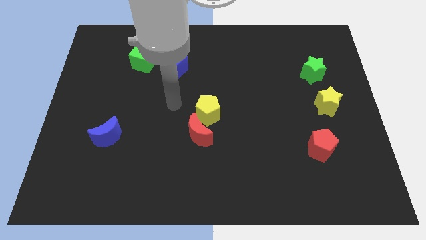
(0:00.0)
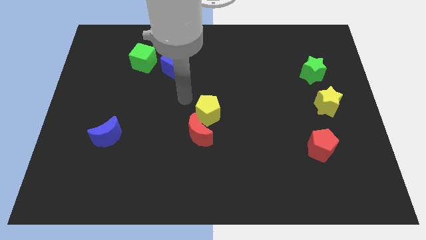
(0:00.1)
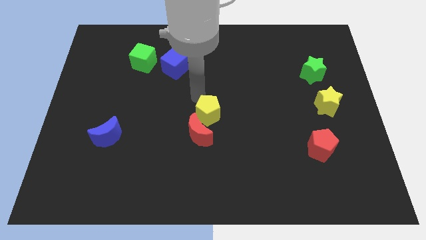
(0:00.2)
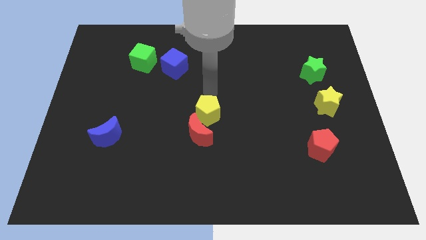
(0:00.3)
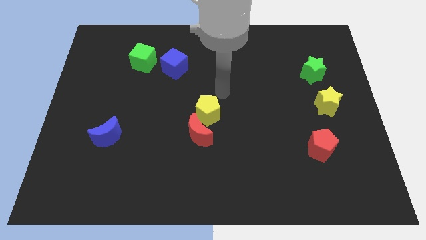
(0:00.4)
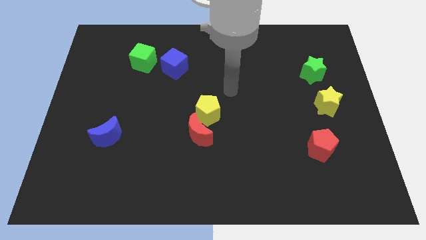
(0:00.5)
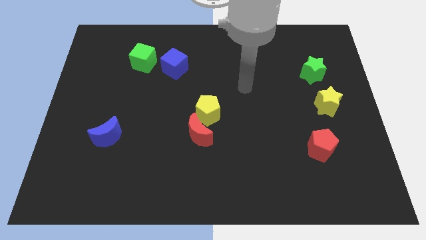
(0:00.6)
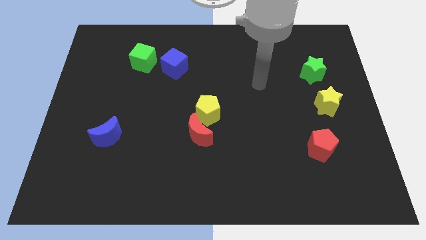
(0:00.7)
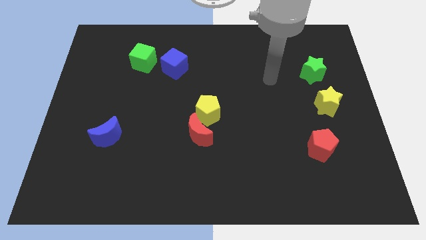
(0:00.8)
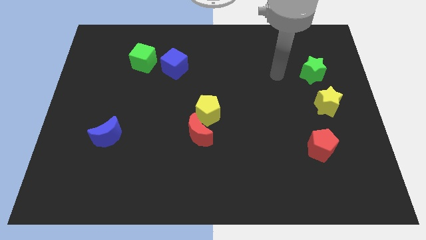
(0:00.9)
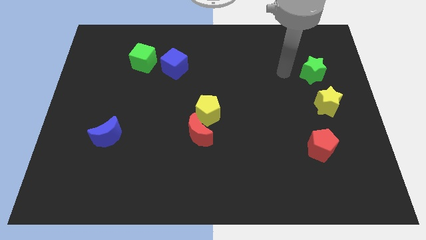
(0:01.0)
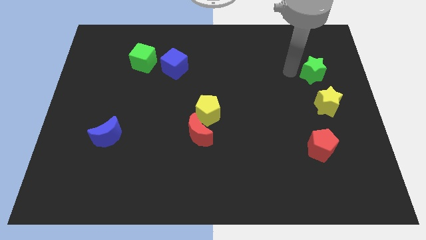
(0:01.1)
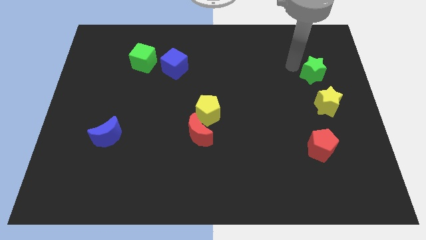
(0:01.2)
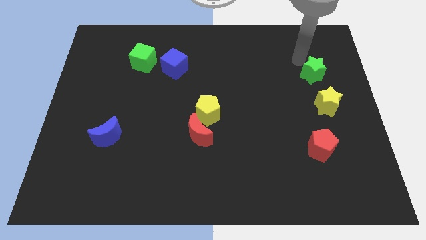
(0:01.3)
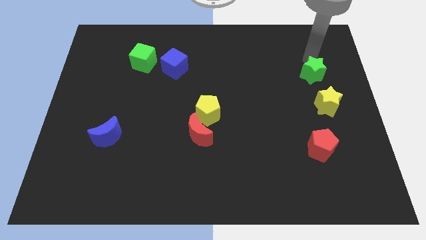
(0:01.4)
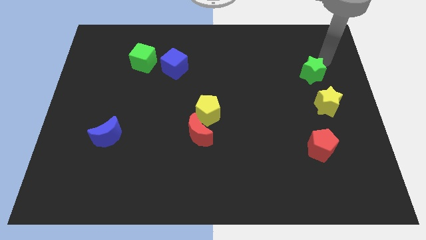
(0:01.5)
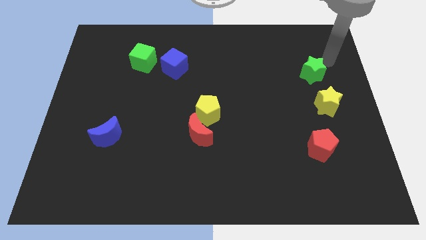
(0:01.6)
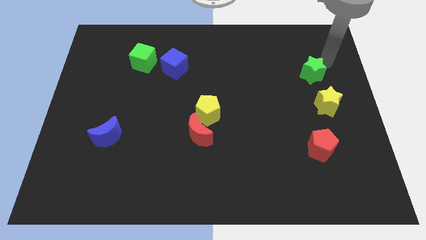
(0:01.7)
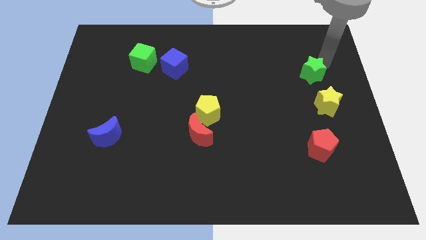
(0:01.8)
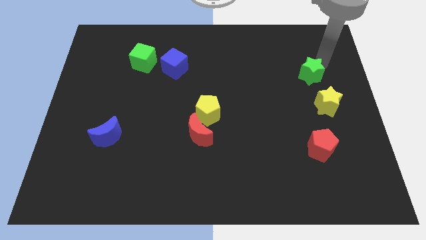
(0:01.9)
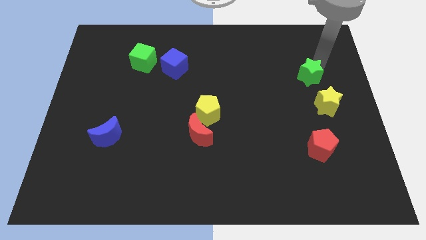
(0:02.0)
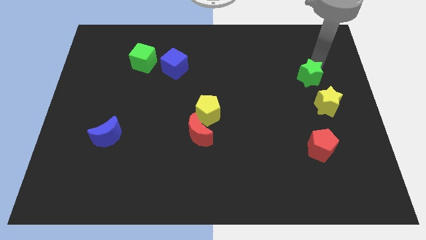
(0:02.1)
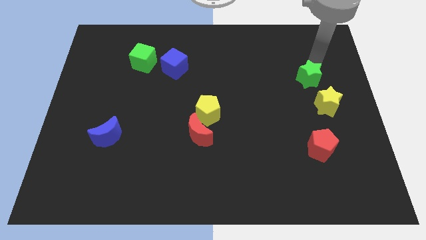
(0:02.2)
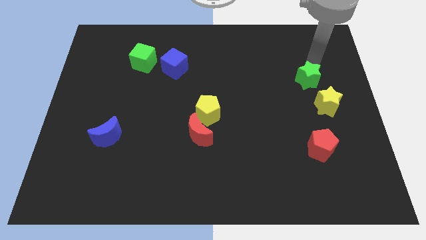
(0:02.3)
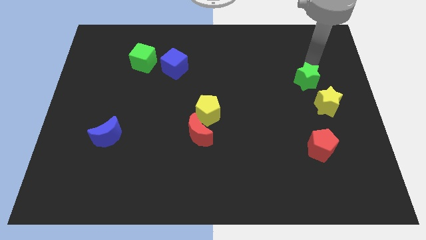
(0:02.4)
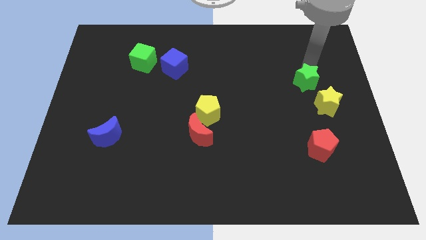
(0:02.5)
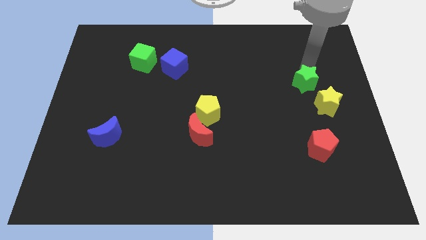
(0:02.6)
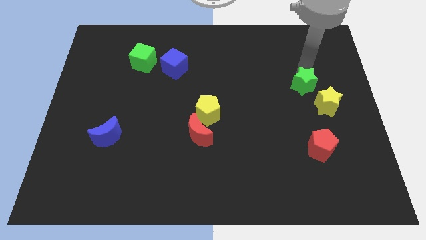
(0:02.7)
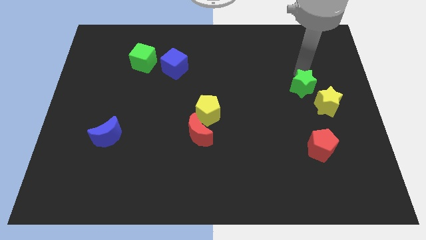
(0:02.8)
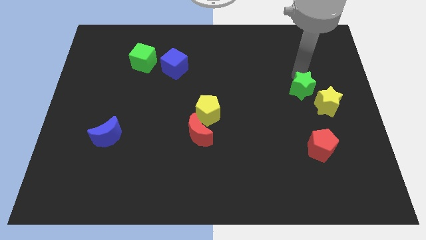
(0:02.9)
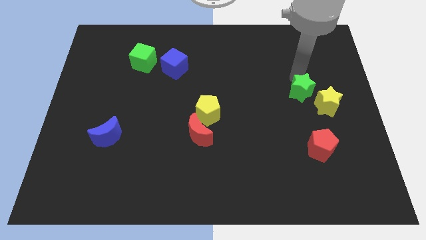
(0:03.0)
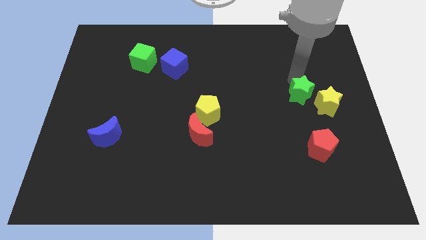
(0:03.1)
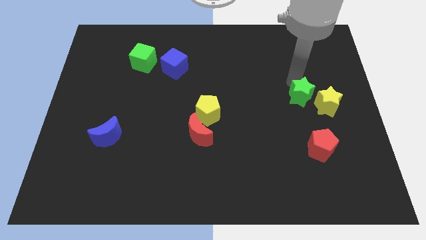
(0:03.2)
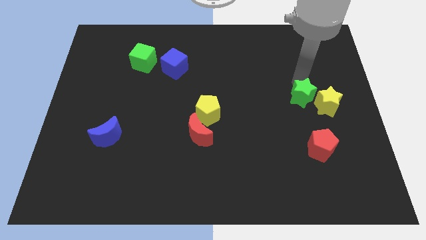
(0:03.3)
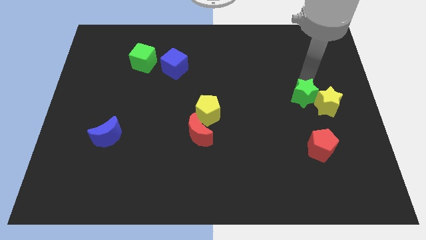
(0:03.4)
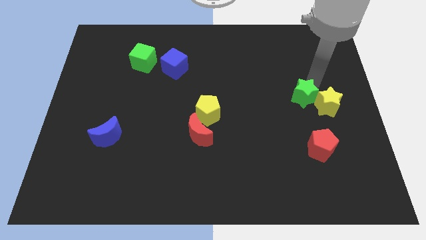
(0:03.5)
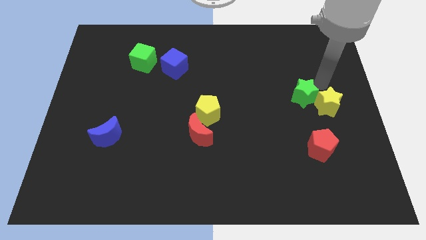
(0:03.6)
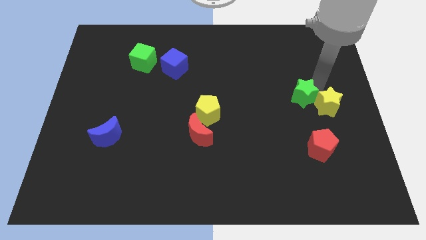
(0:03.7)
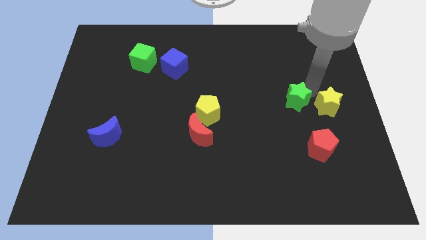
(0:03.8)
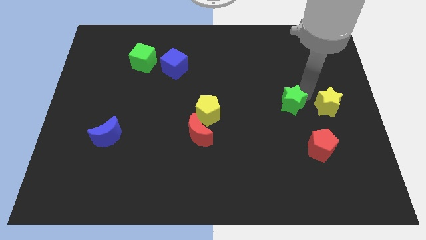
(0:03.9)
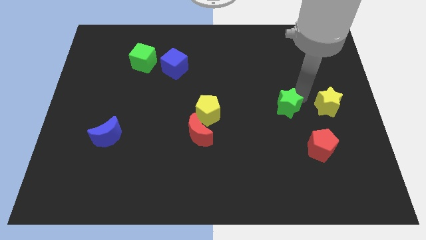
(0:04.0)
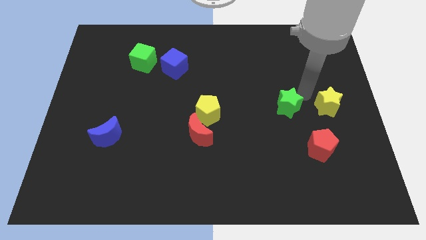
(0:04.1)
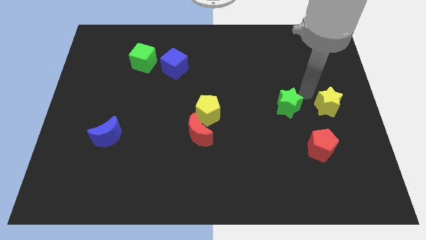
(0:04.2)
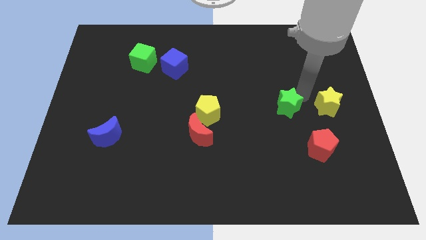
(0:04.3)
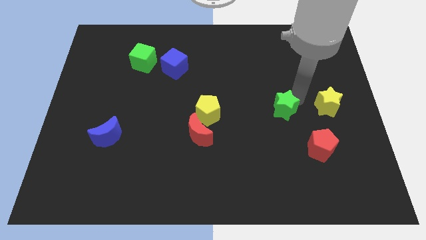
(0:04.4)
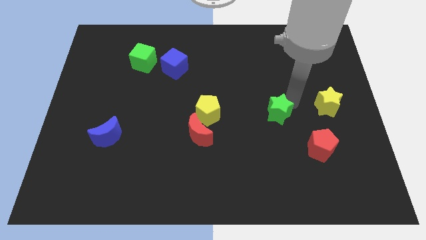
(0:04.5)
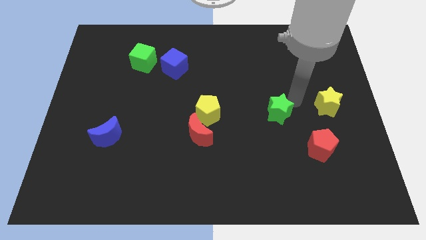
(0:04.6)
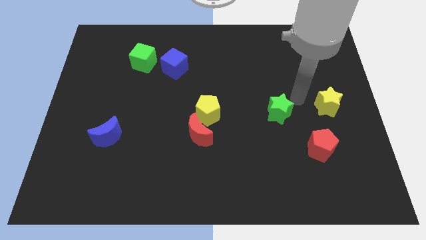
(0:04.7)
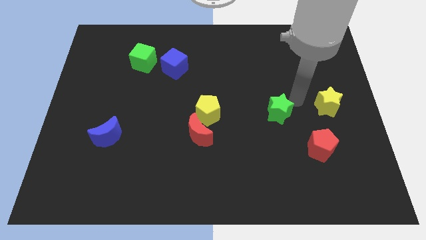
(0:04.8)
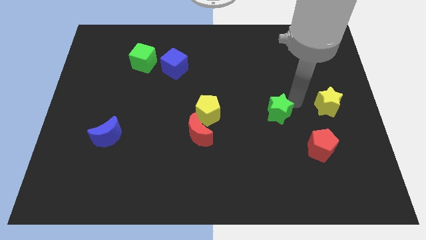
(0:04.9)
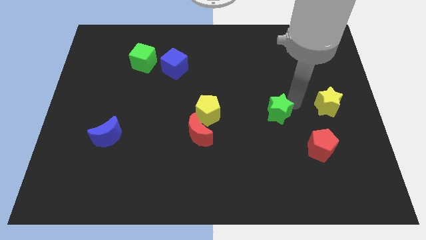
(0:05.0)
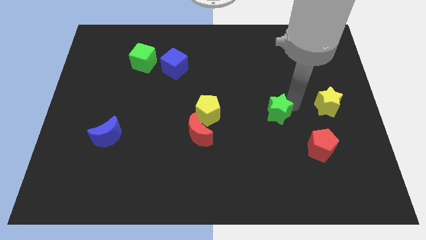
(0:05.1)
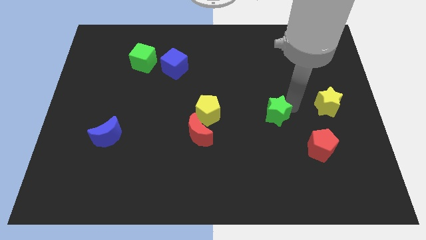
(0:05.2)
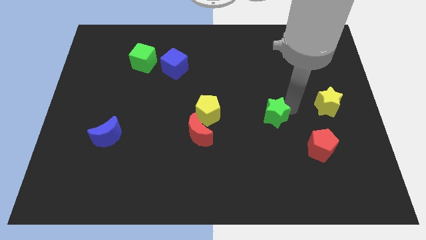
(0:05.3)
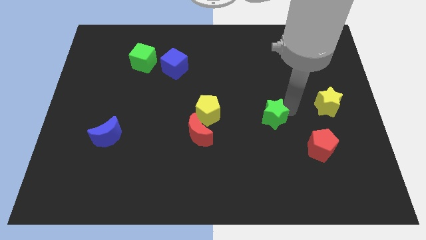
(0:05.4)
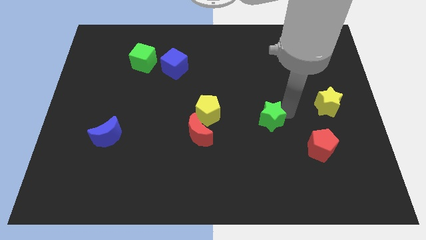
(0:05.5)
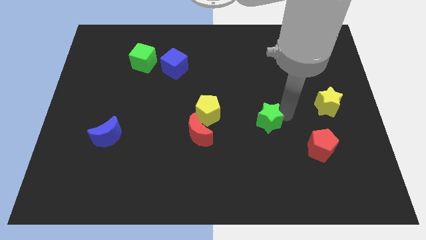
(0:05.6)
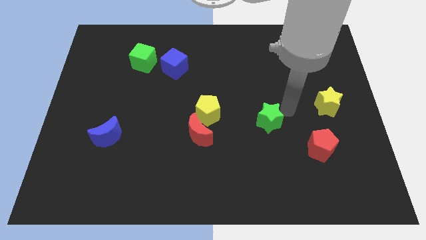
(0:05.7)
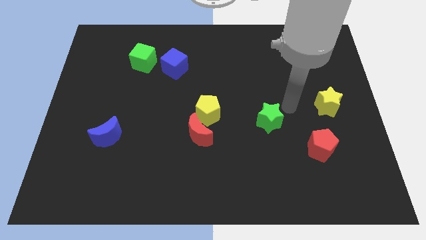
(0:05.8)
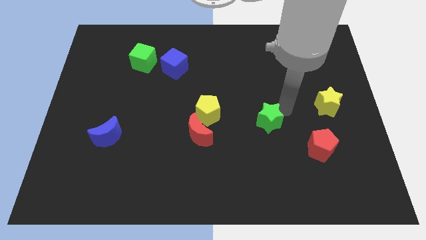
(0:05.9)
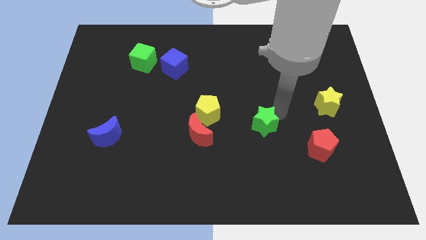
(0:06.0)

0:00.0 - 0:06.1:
move the green star to the right of the red moon

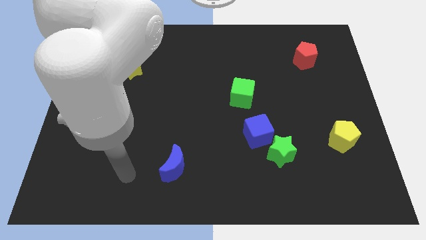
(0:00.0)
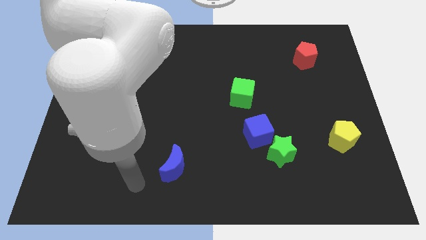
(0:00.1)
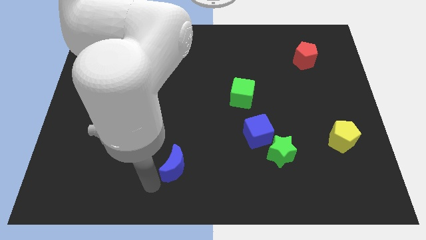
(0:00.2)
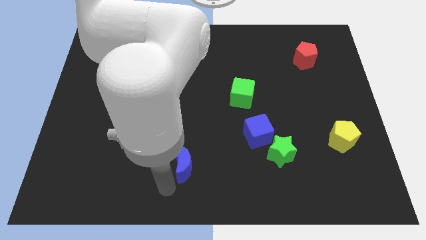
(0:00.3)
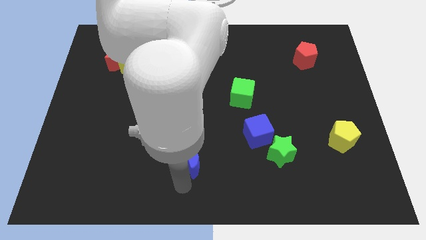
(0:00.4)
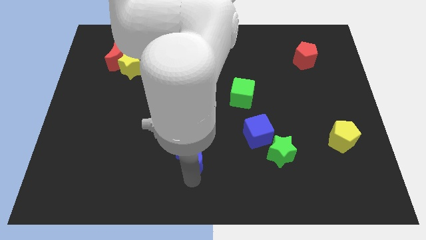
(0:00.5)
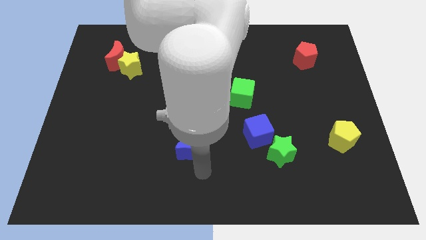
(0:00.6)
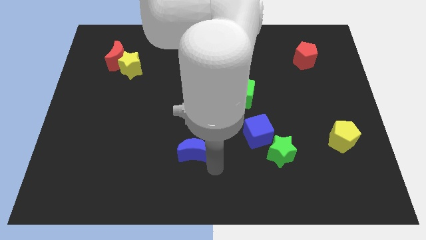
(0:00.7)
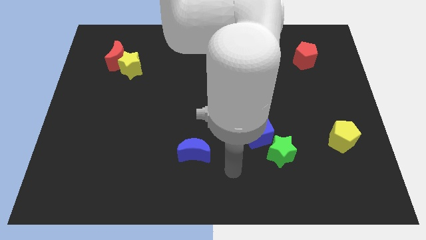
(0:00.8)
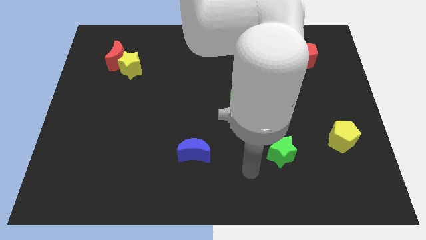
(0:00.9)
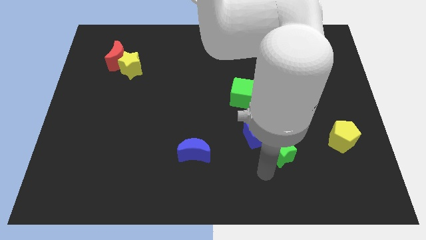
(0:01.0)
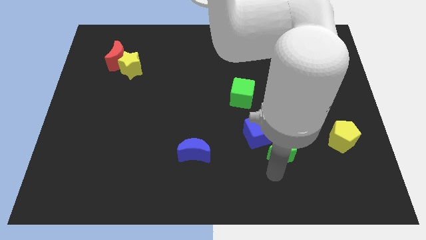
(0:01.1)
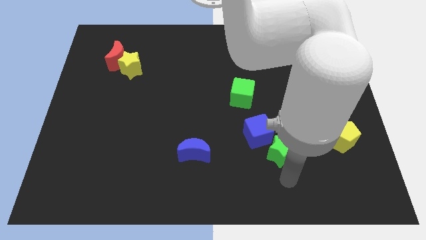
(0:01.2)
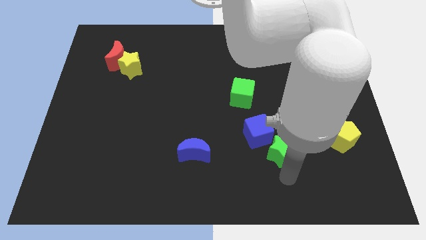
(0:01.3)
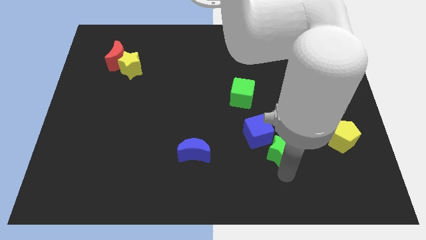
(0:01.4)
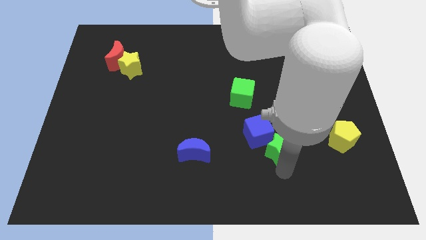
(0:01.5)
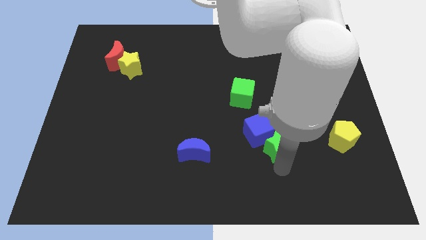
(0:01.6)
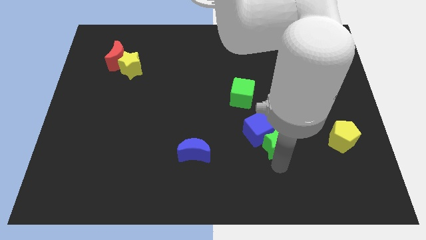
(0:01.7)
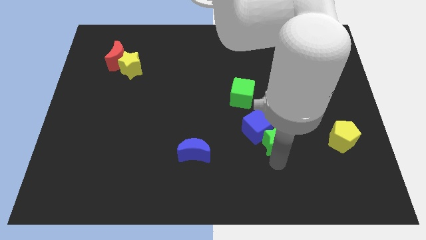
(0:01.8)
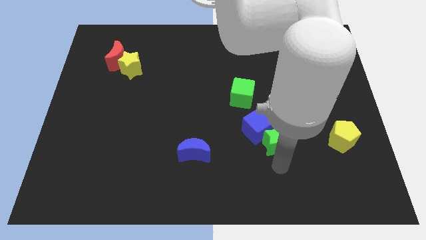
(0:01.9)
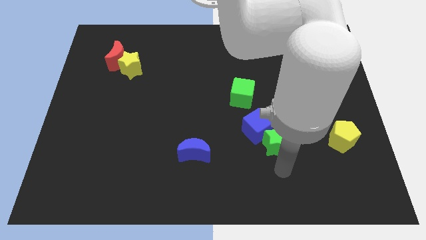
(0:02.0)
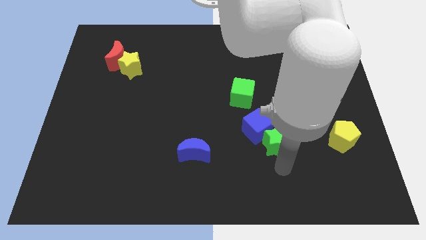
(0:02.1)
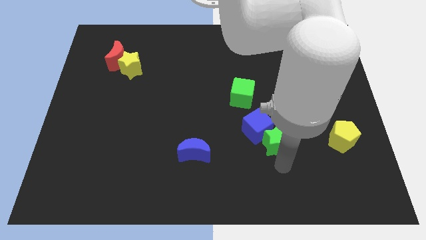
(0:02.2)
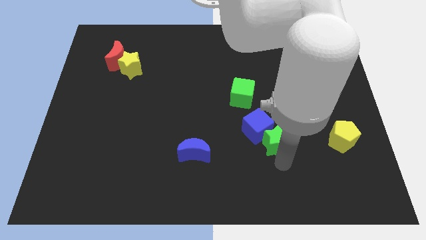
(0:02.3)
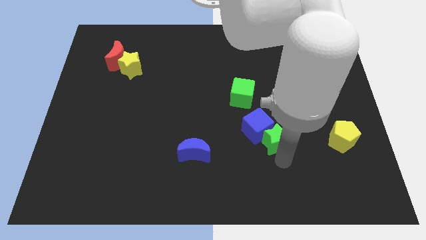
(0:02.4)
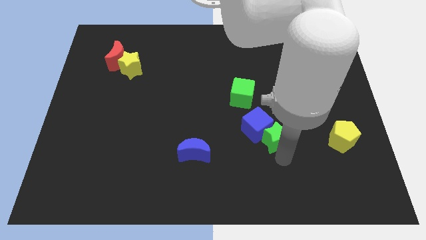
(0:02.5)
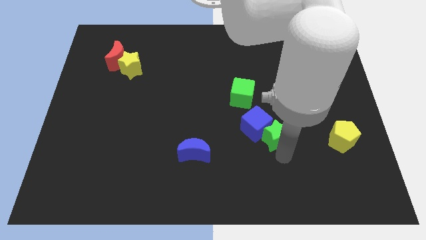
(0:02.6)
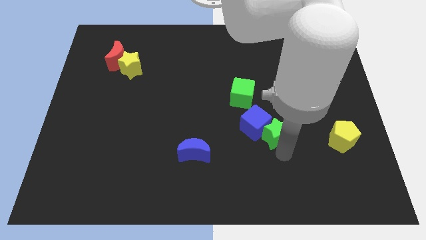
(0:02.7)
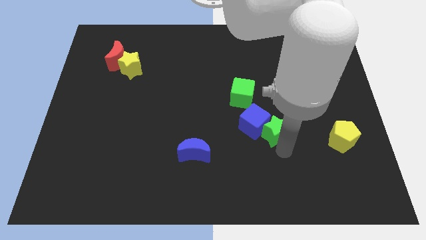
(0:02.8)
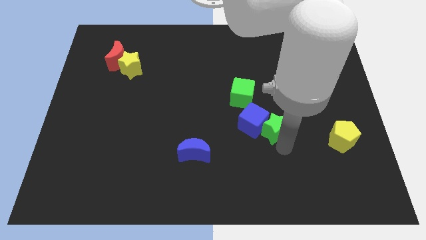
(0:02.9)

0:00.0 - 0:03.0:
push the green star diagonally down and to the right of the green cube
